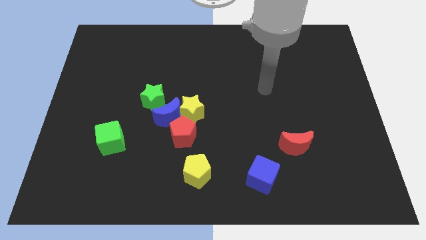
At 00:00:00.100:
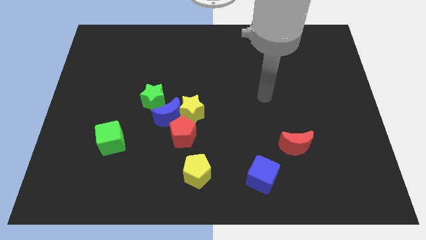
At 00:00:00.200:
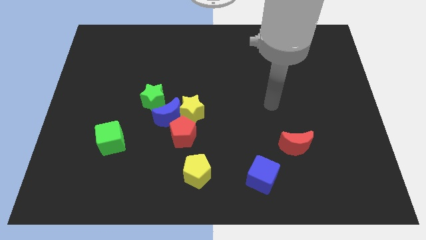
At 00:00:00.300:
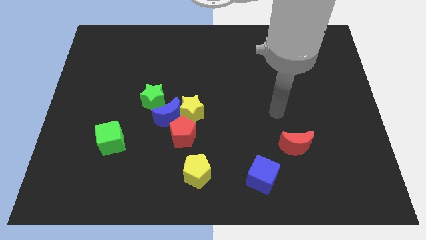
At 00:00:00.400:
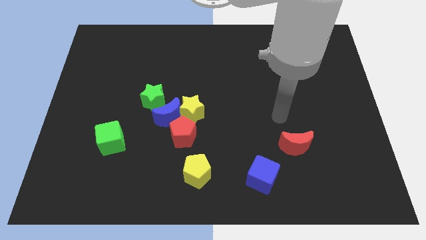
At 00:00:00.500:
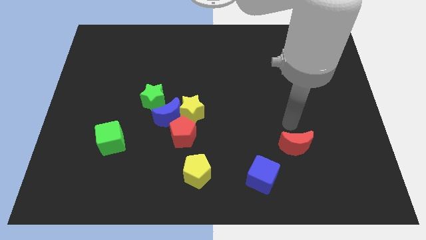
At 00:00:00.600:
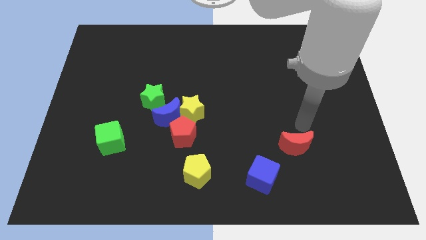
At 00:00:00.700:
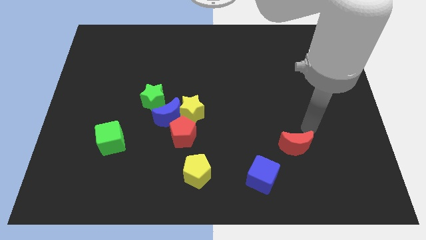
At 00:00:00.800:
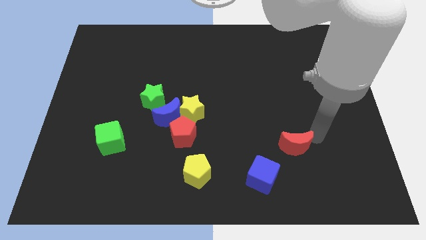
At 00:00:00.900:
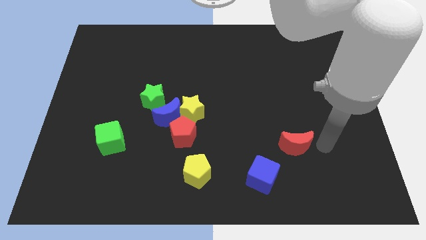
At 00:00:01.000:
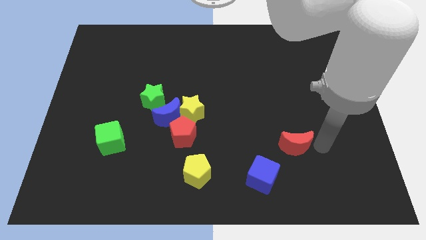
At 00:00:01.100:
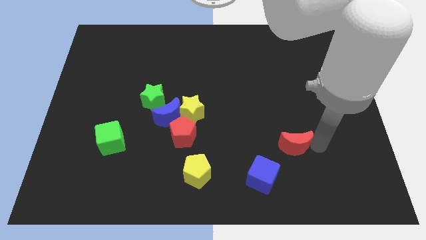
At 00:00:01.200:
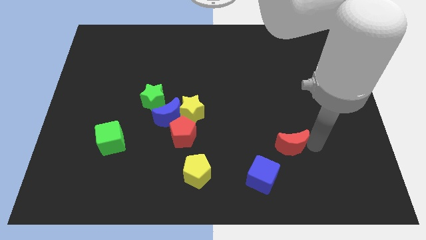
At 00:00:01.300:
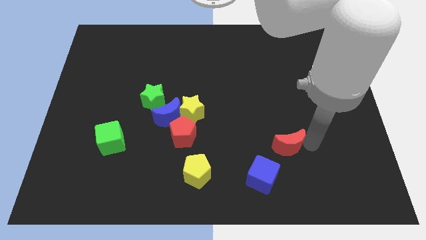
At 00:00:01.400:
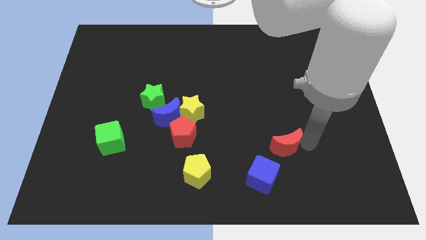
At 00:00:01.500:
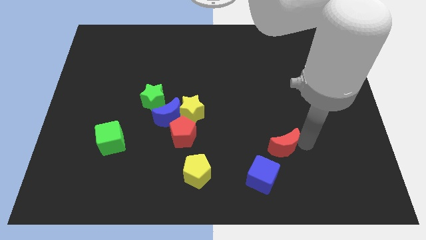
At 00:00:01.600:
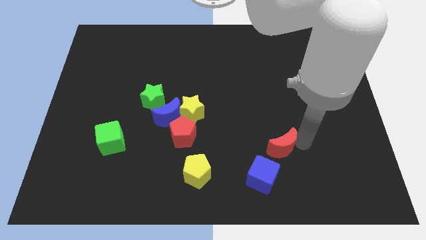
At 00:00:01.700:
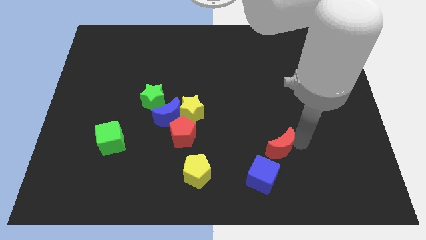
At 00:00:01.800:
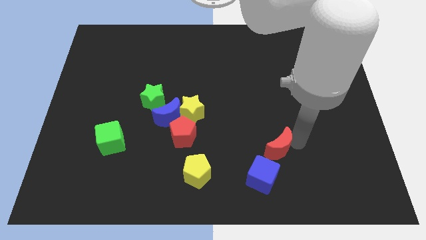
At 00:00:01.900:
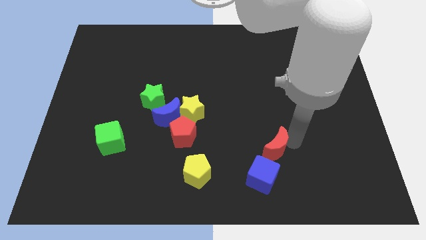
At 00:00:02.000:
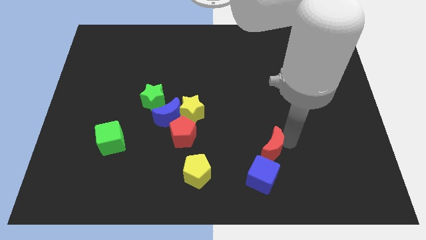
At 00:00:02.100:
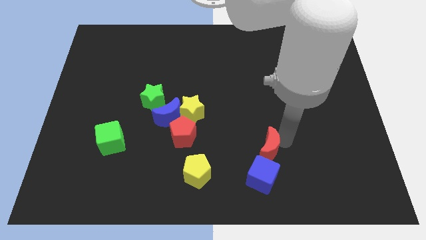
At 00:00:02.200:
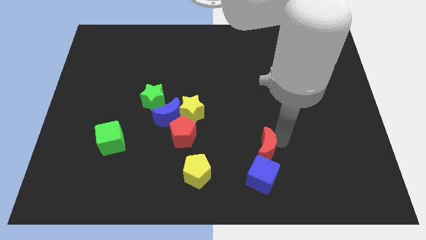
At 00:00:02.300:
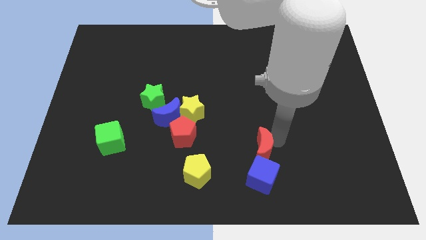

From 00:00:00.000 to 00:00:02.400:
push the red moon to the left somewhat

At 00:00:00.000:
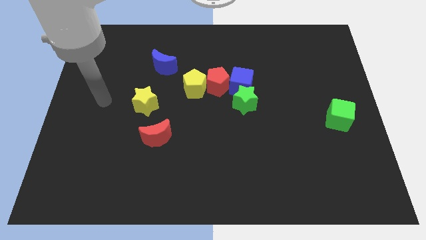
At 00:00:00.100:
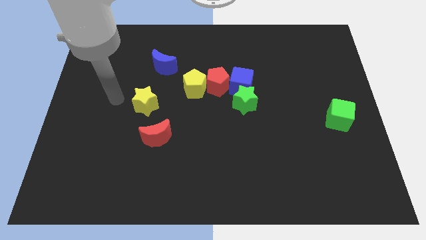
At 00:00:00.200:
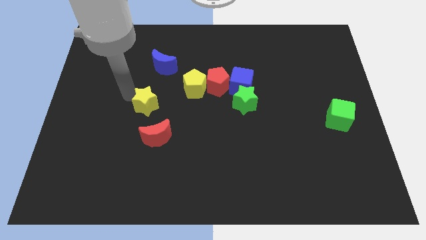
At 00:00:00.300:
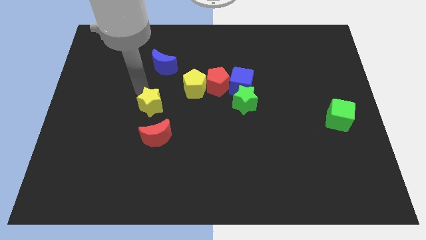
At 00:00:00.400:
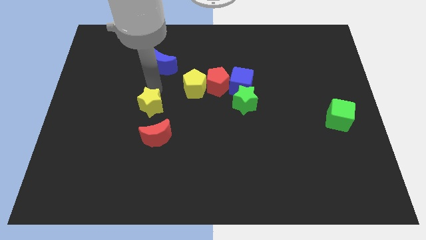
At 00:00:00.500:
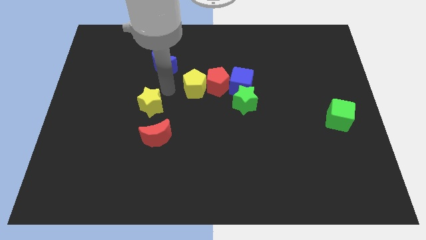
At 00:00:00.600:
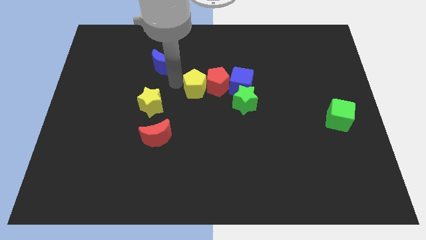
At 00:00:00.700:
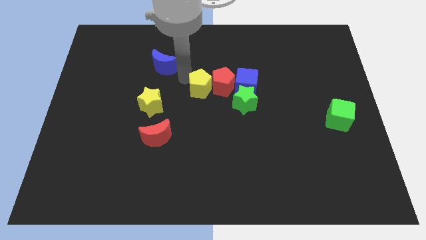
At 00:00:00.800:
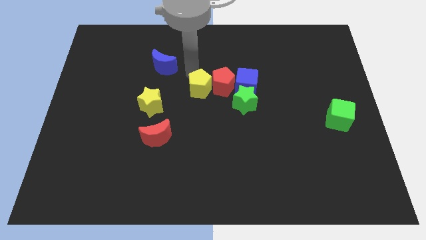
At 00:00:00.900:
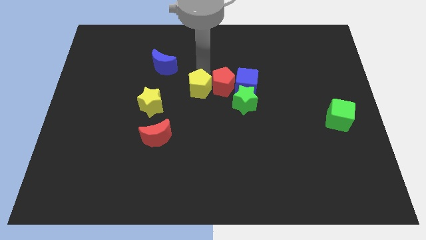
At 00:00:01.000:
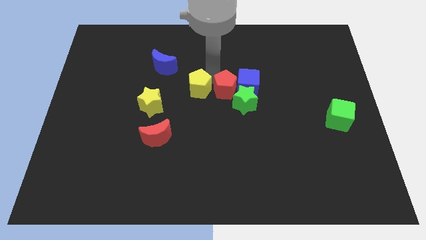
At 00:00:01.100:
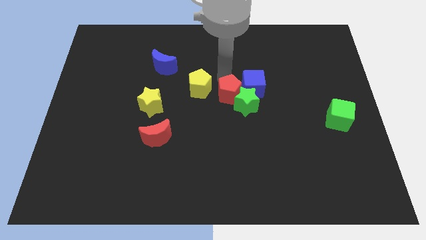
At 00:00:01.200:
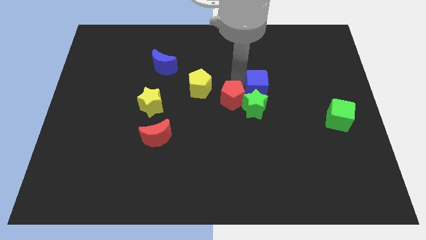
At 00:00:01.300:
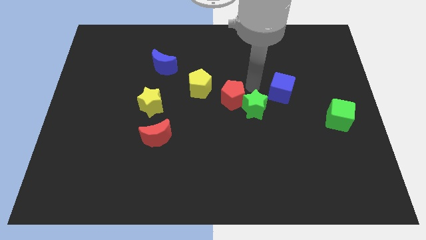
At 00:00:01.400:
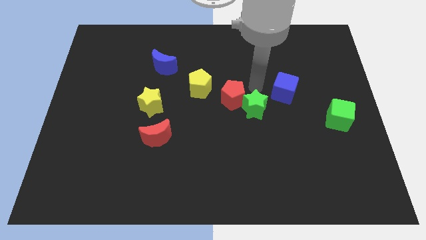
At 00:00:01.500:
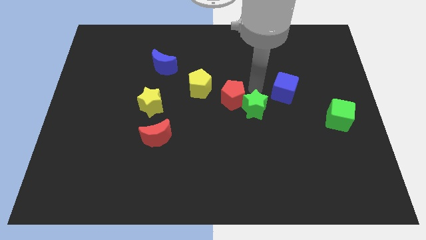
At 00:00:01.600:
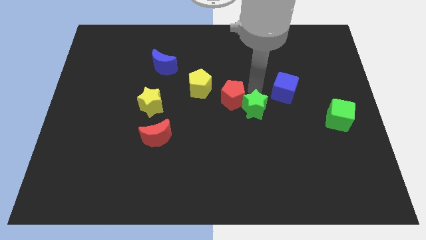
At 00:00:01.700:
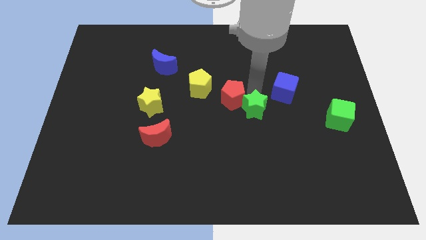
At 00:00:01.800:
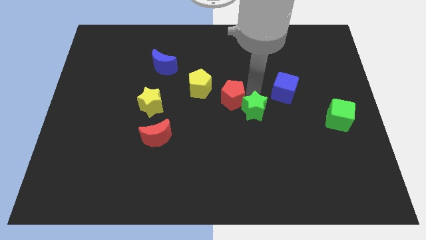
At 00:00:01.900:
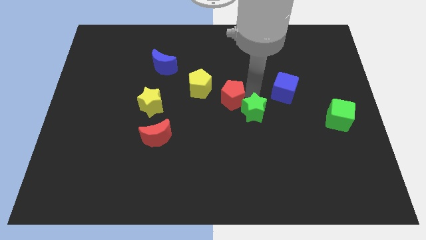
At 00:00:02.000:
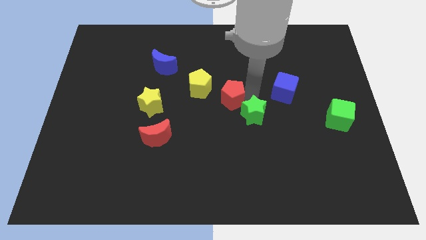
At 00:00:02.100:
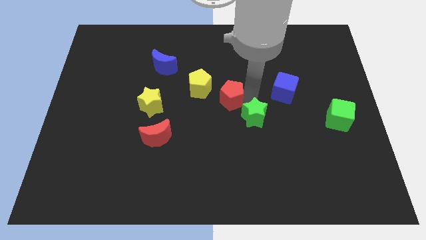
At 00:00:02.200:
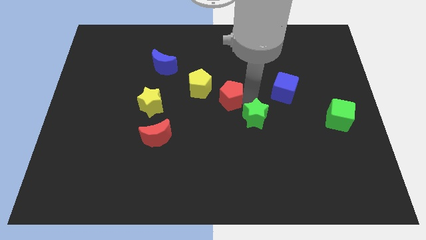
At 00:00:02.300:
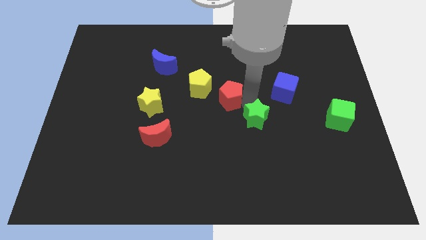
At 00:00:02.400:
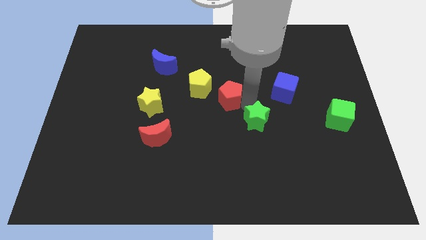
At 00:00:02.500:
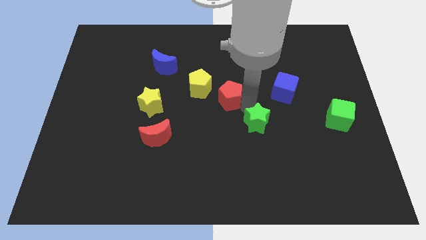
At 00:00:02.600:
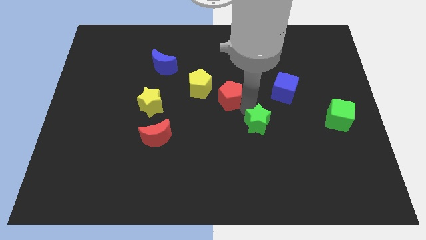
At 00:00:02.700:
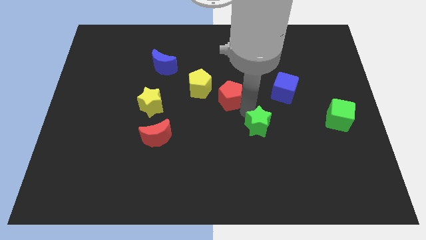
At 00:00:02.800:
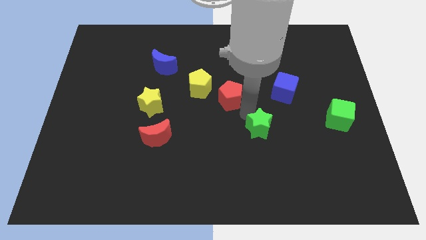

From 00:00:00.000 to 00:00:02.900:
push the green star slightly down

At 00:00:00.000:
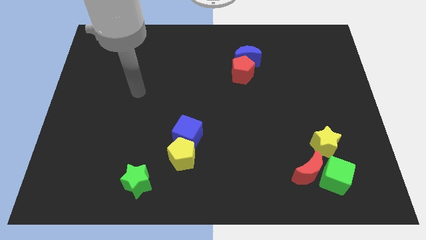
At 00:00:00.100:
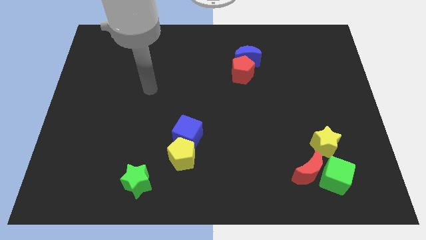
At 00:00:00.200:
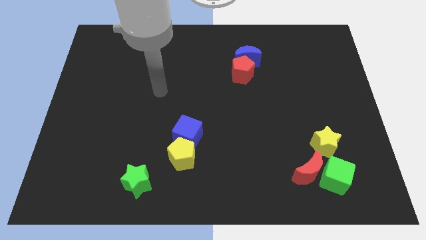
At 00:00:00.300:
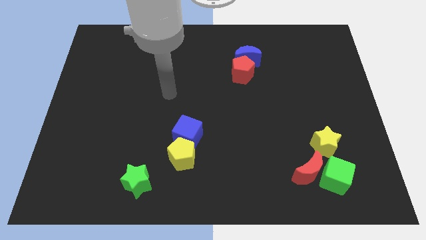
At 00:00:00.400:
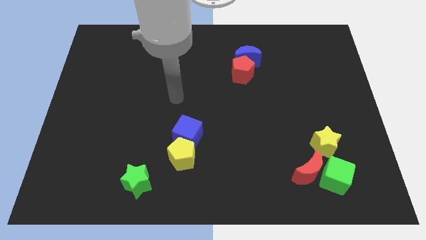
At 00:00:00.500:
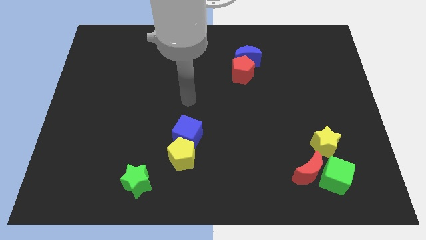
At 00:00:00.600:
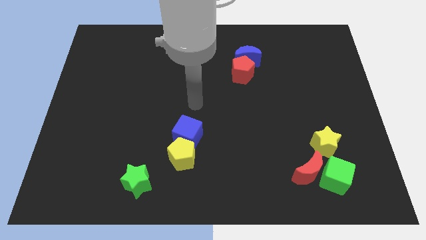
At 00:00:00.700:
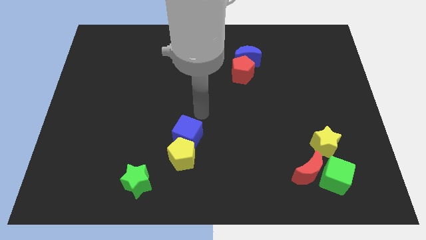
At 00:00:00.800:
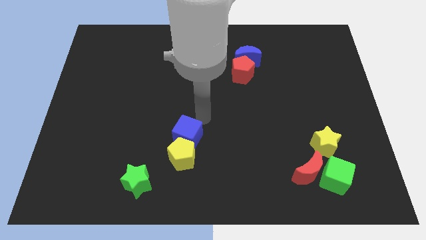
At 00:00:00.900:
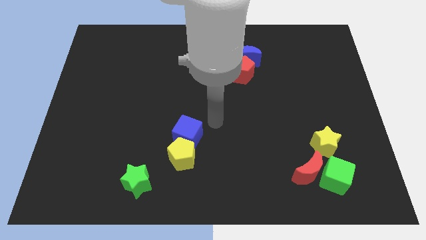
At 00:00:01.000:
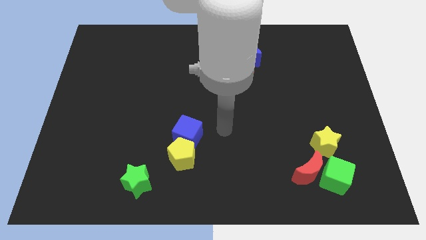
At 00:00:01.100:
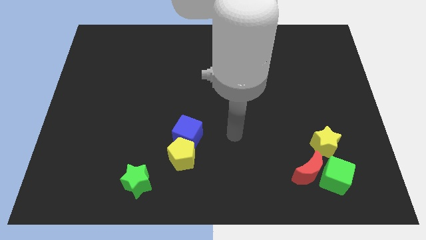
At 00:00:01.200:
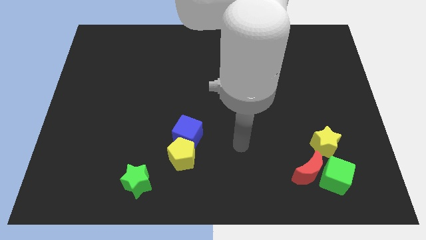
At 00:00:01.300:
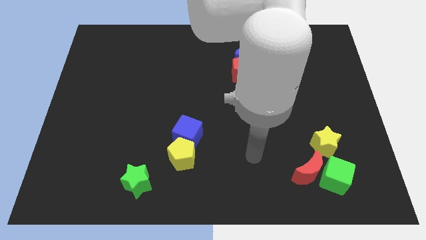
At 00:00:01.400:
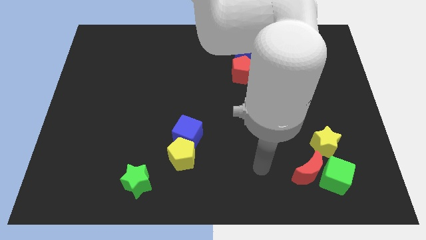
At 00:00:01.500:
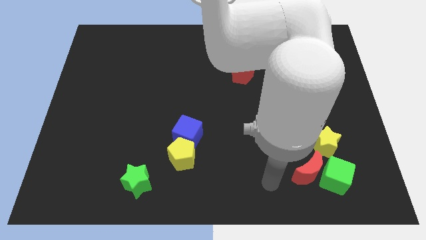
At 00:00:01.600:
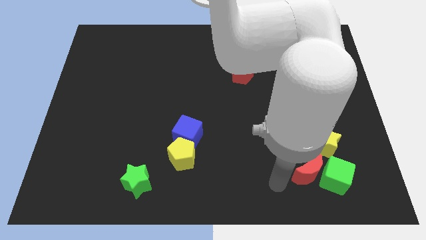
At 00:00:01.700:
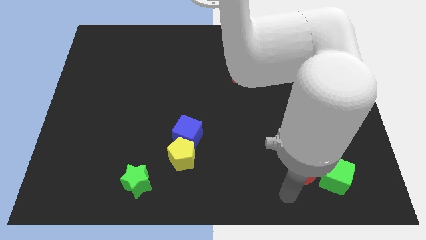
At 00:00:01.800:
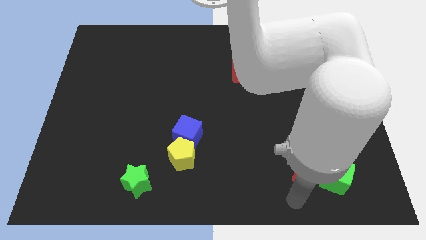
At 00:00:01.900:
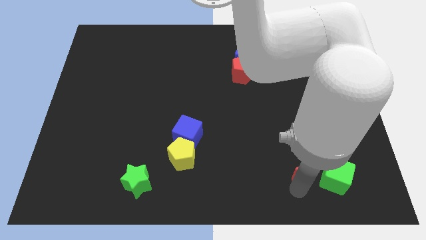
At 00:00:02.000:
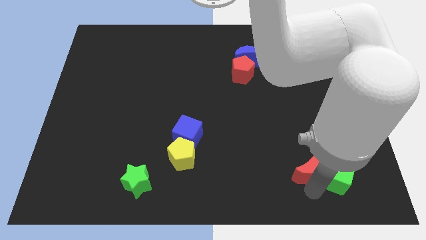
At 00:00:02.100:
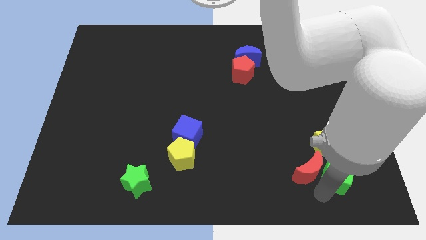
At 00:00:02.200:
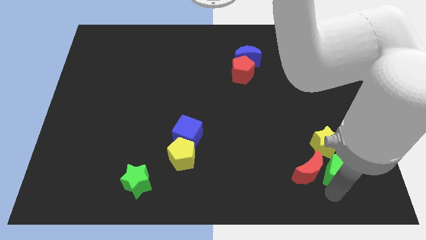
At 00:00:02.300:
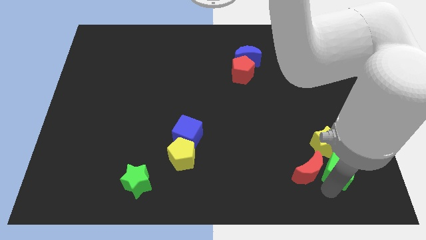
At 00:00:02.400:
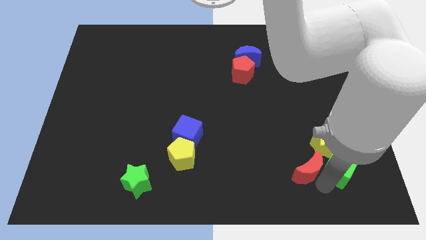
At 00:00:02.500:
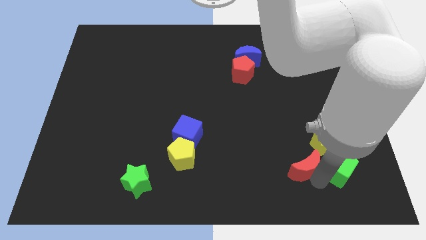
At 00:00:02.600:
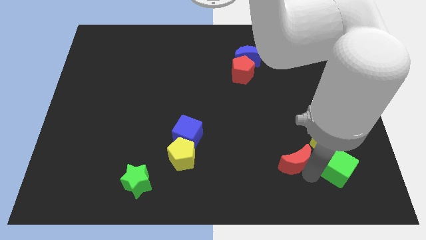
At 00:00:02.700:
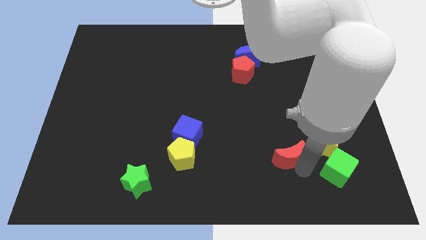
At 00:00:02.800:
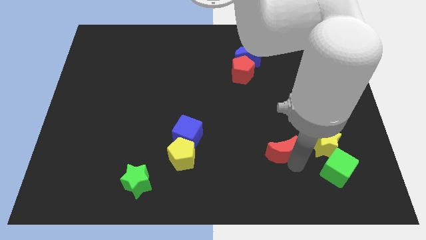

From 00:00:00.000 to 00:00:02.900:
slightly slide the red moon upwards and to the left diagonally
